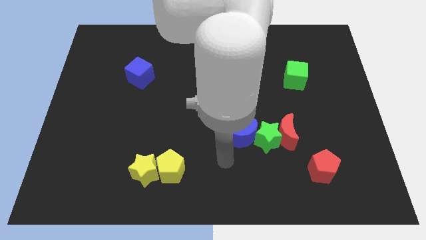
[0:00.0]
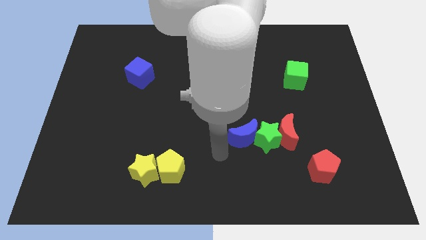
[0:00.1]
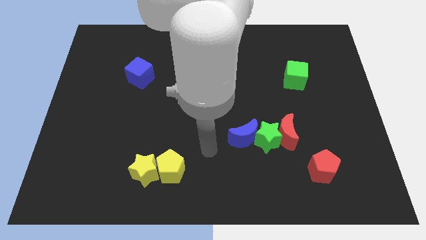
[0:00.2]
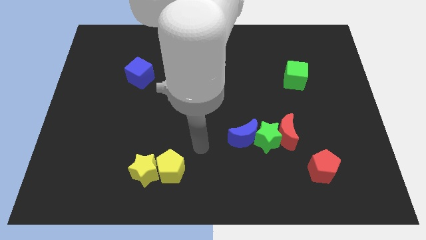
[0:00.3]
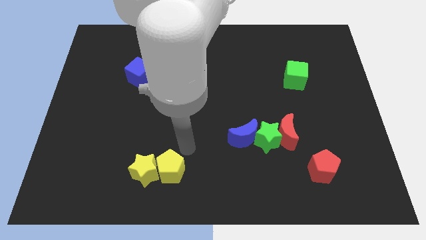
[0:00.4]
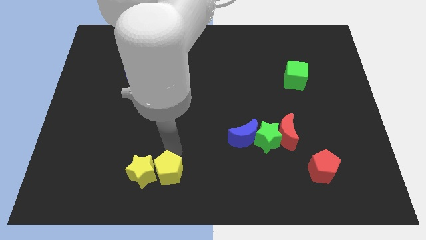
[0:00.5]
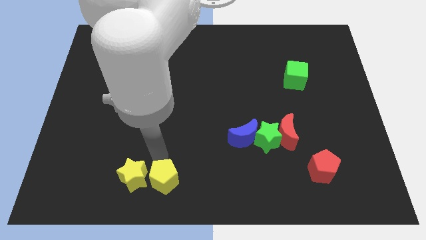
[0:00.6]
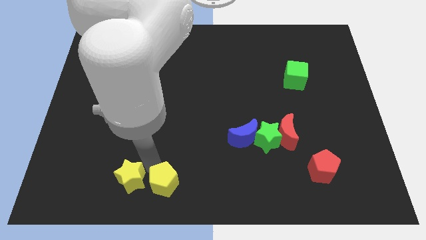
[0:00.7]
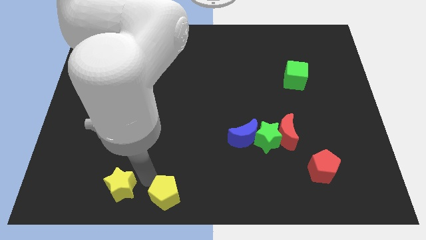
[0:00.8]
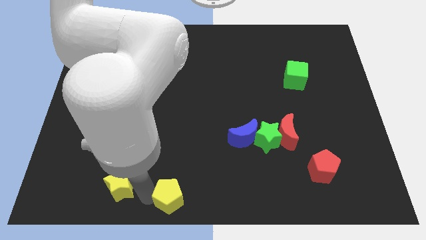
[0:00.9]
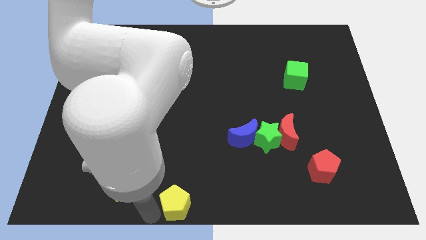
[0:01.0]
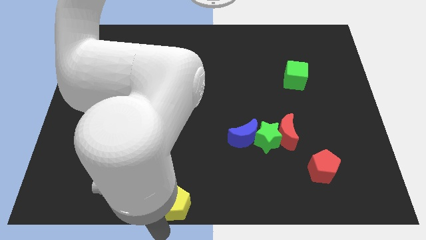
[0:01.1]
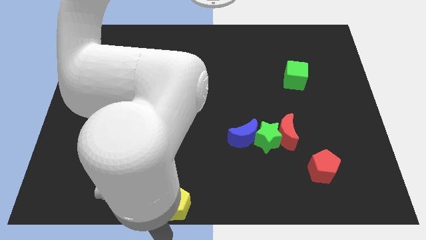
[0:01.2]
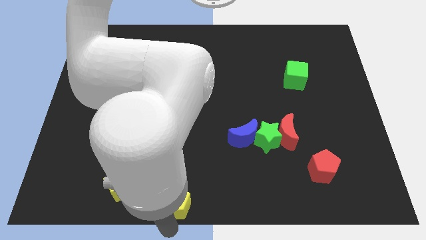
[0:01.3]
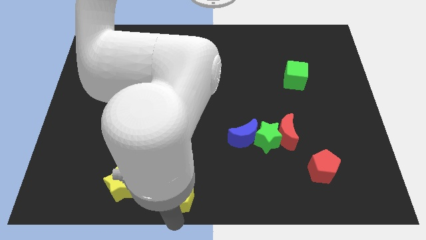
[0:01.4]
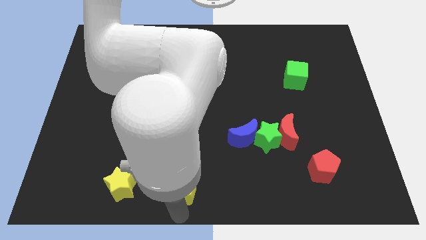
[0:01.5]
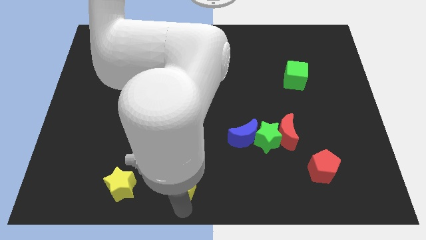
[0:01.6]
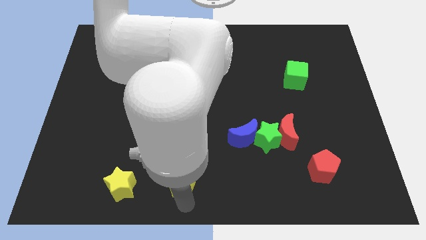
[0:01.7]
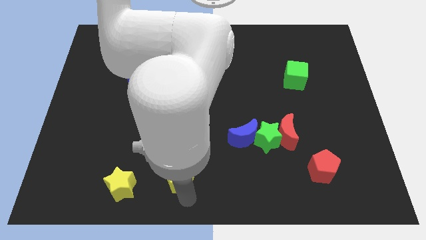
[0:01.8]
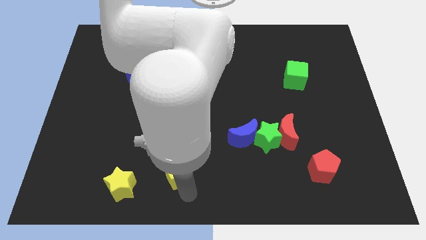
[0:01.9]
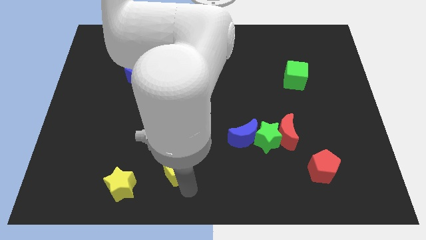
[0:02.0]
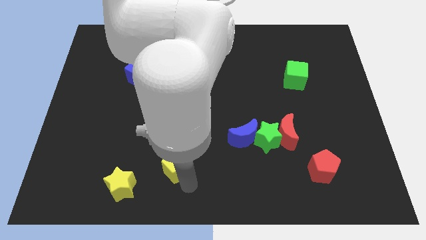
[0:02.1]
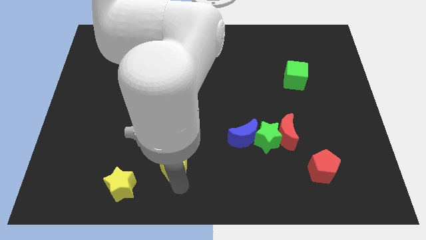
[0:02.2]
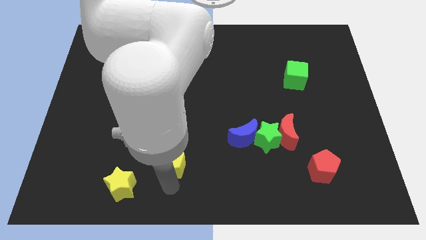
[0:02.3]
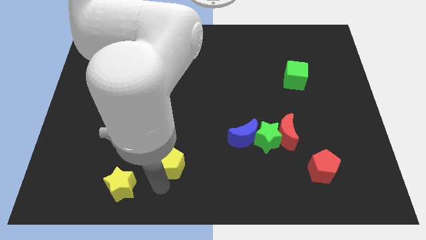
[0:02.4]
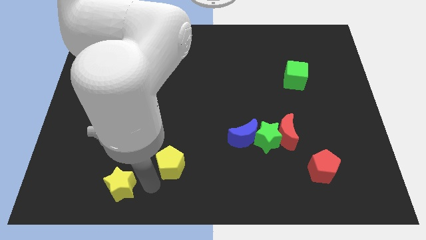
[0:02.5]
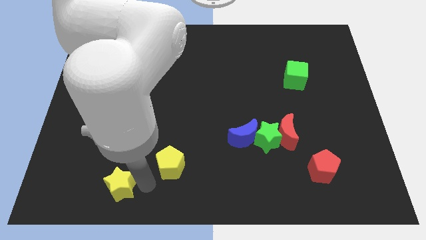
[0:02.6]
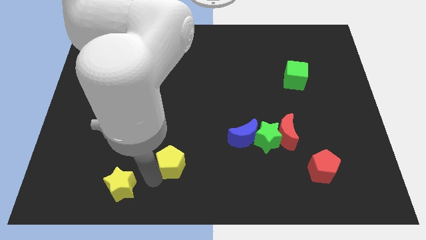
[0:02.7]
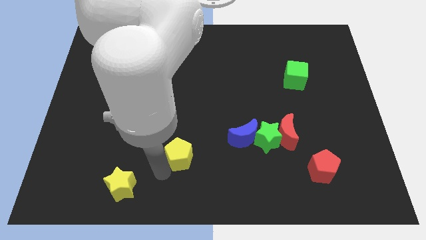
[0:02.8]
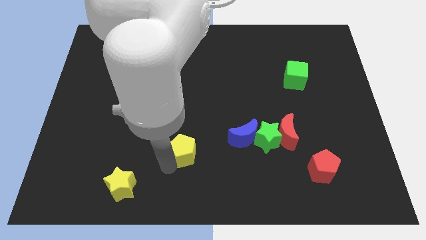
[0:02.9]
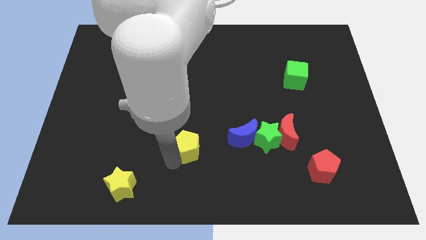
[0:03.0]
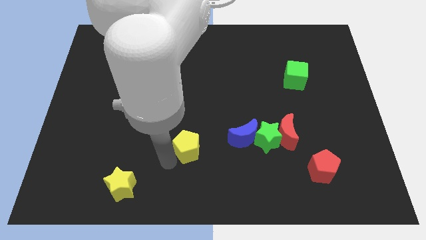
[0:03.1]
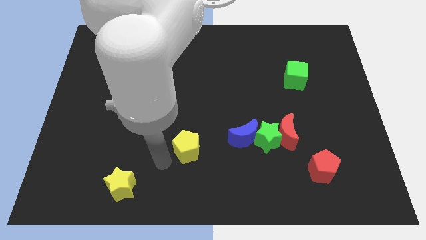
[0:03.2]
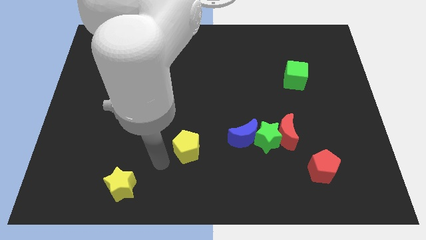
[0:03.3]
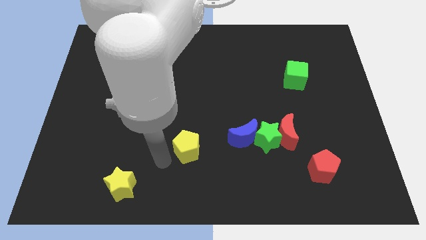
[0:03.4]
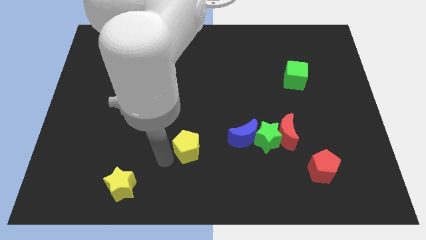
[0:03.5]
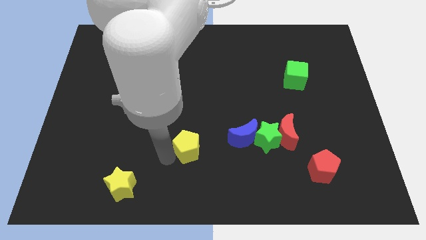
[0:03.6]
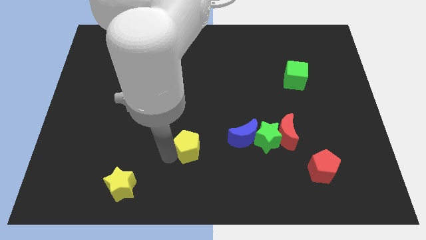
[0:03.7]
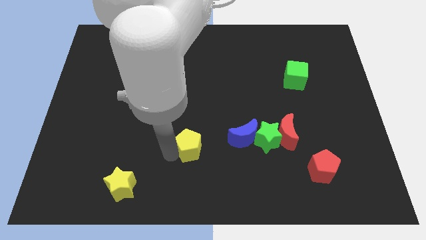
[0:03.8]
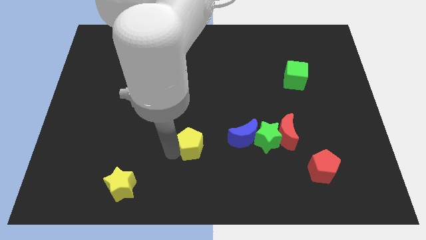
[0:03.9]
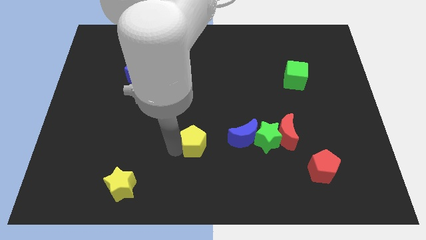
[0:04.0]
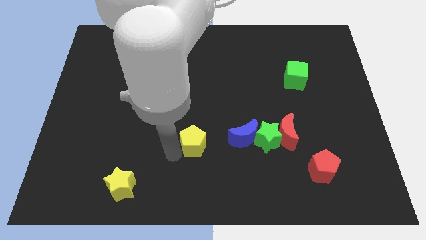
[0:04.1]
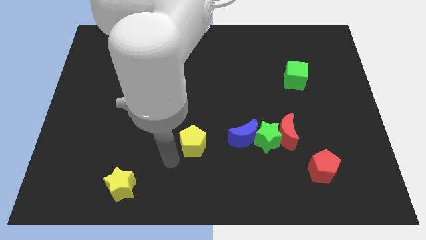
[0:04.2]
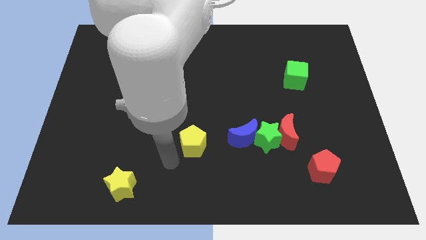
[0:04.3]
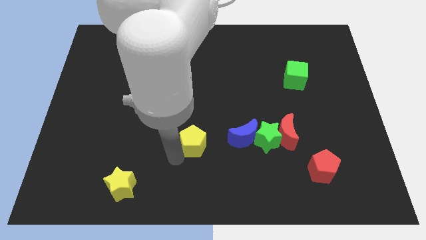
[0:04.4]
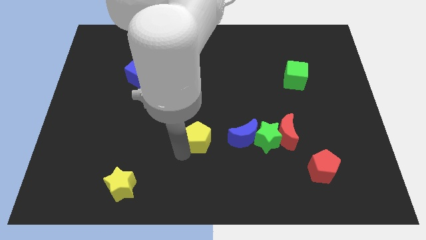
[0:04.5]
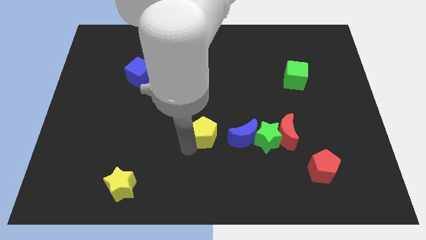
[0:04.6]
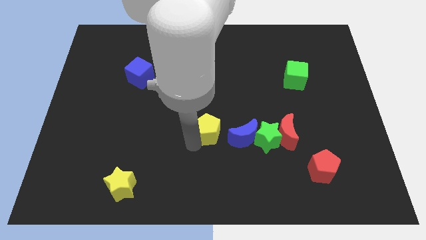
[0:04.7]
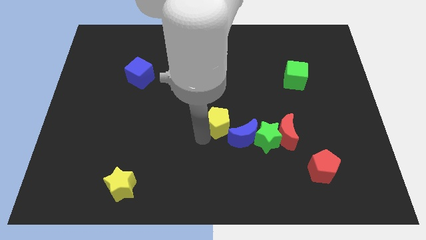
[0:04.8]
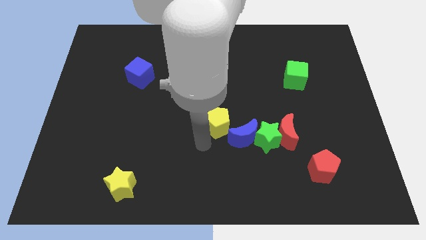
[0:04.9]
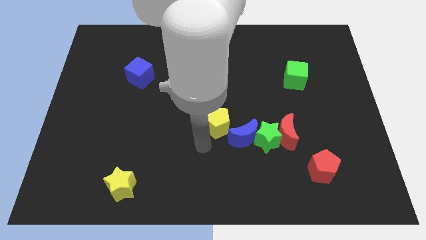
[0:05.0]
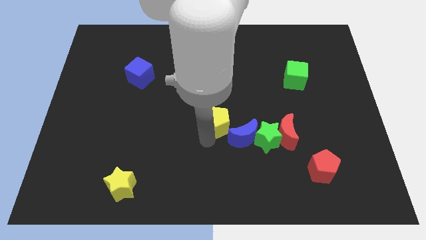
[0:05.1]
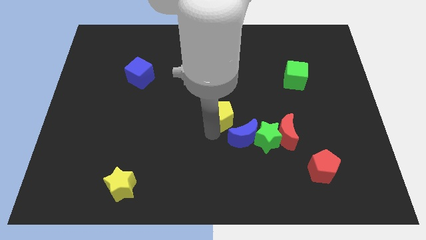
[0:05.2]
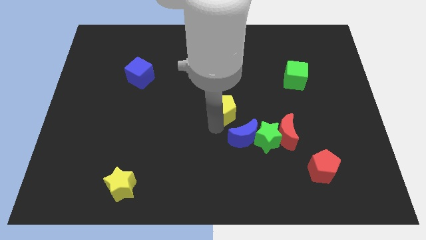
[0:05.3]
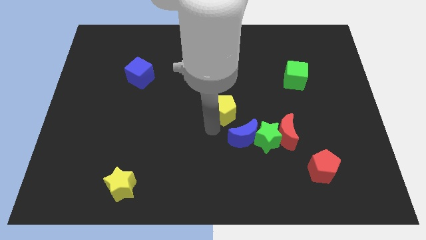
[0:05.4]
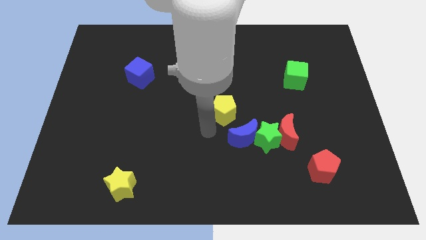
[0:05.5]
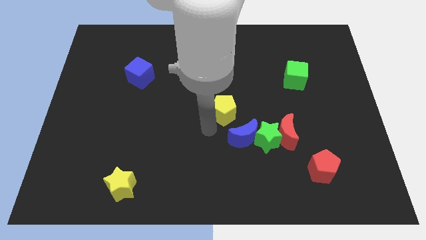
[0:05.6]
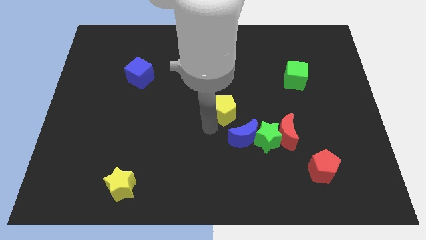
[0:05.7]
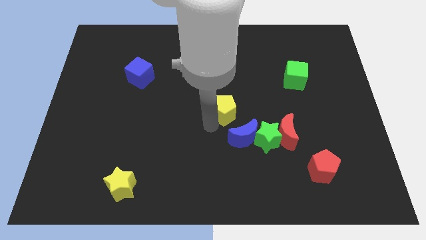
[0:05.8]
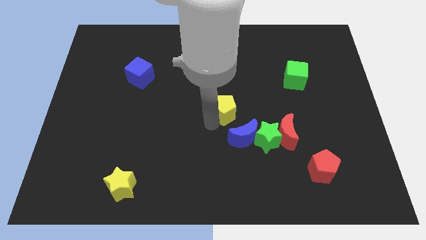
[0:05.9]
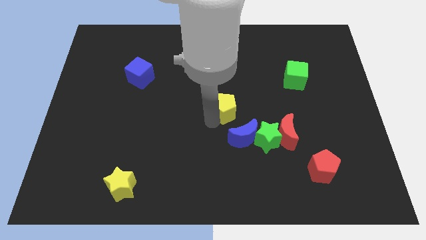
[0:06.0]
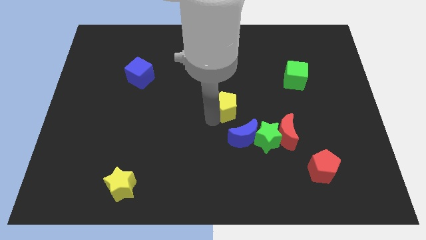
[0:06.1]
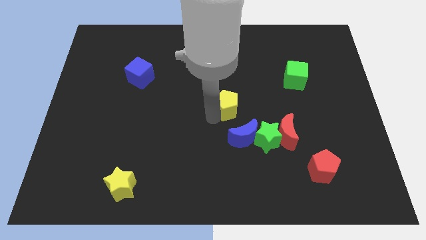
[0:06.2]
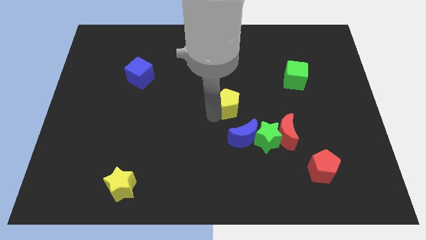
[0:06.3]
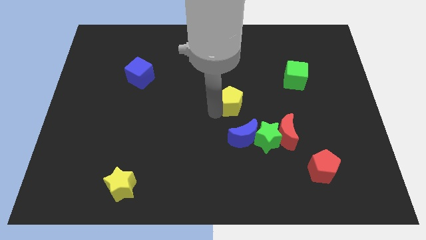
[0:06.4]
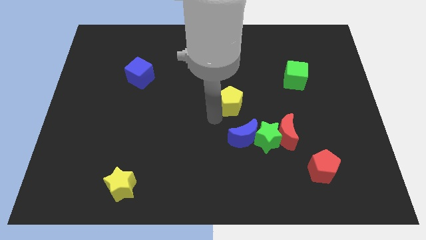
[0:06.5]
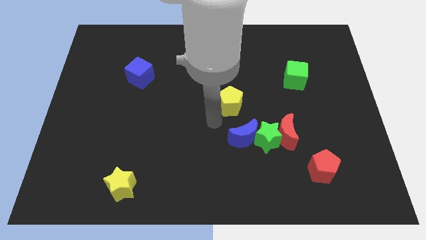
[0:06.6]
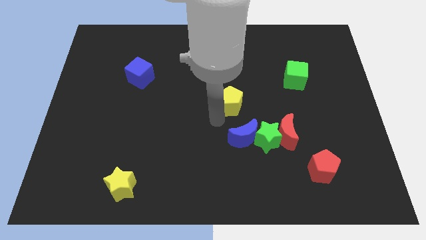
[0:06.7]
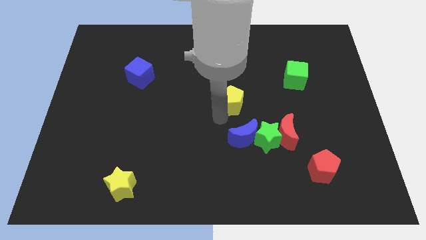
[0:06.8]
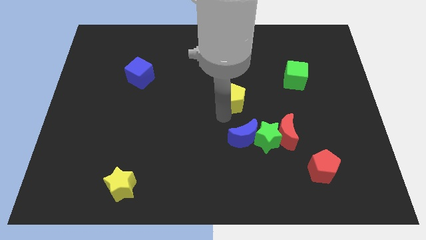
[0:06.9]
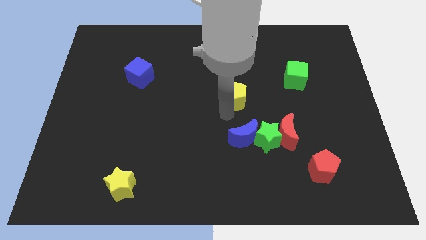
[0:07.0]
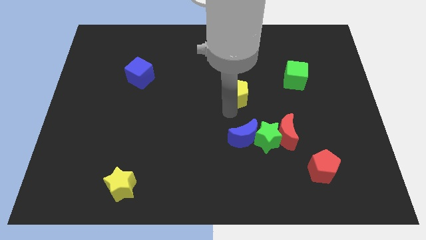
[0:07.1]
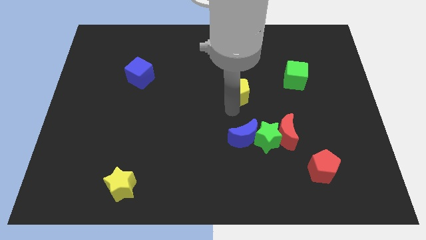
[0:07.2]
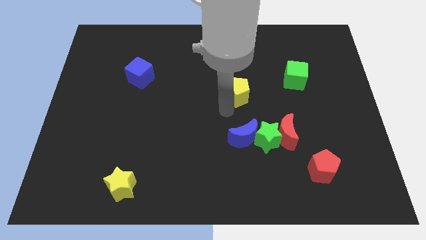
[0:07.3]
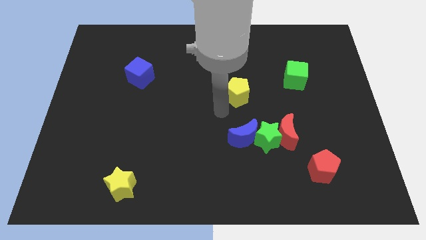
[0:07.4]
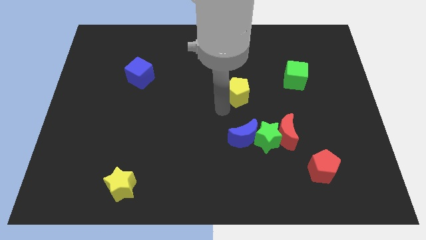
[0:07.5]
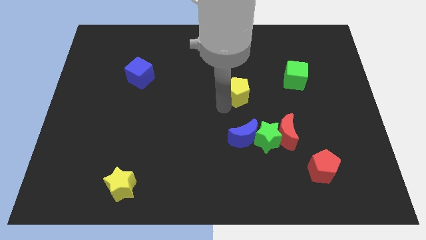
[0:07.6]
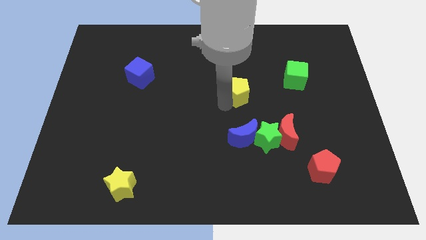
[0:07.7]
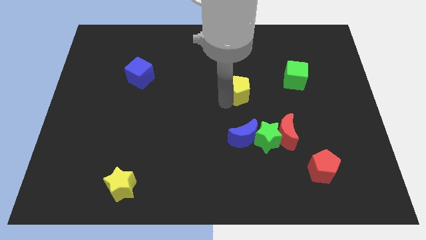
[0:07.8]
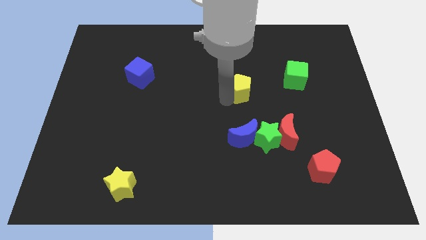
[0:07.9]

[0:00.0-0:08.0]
move the yellow pentagon to the left of the green cube
